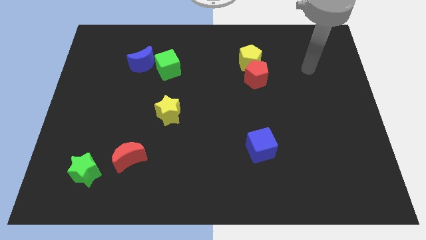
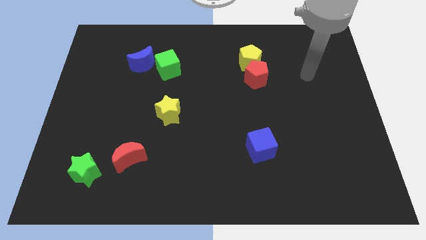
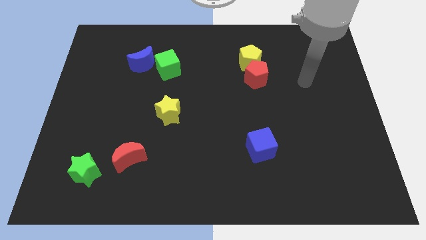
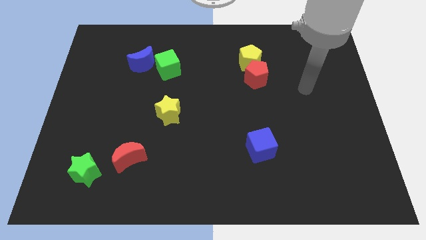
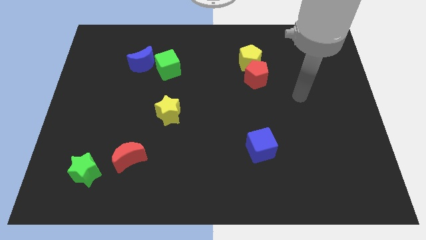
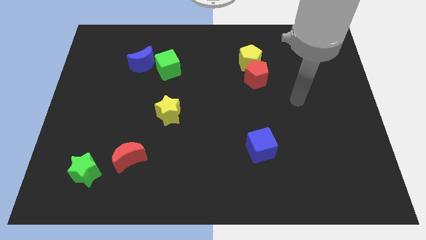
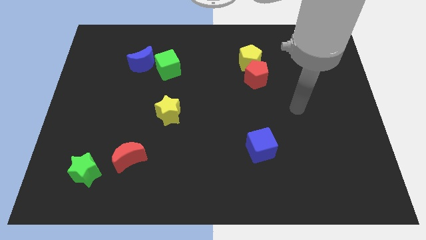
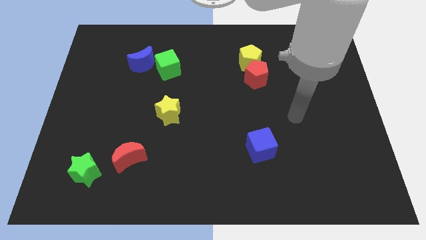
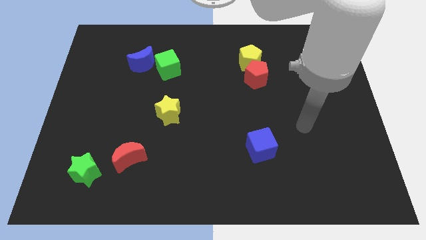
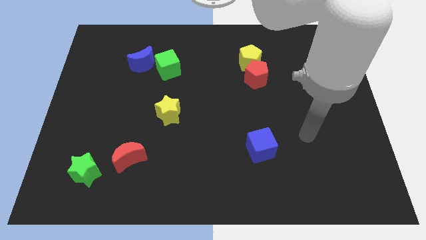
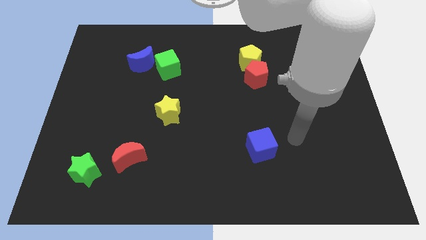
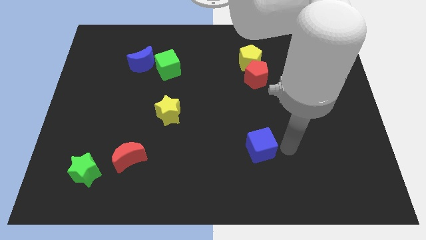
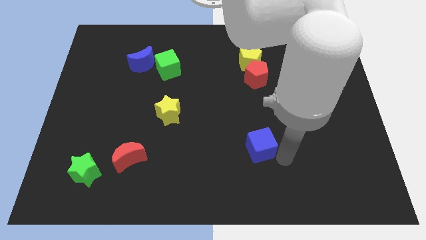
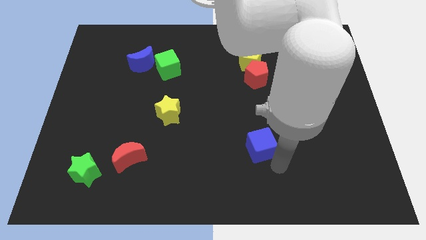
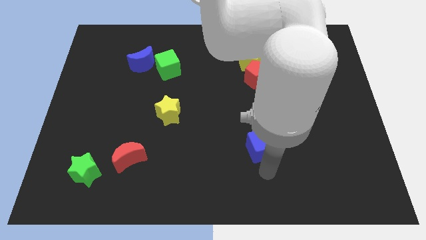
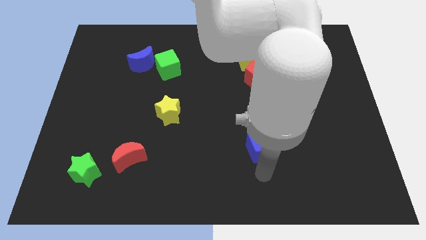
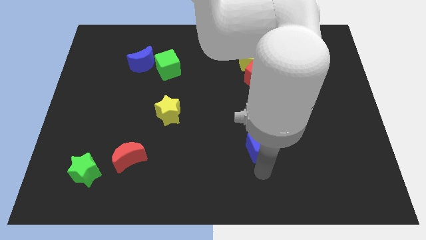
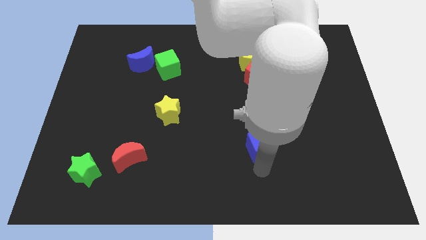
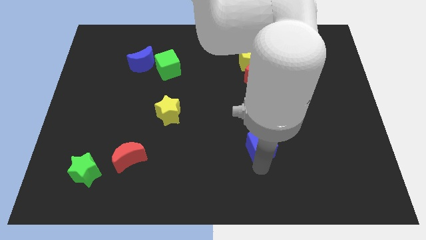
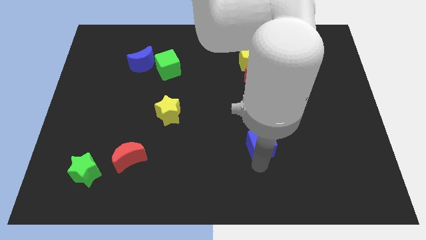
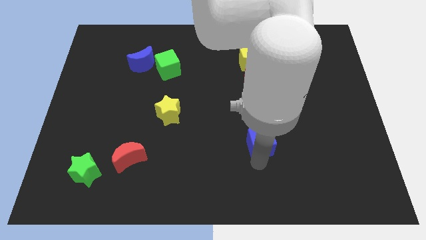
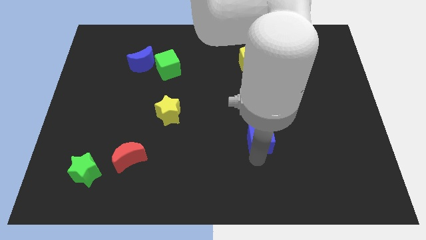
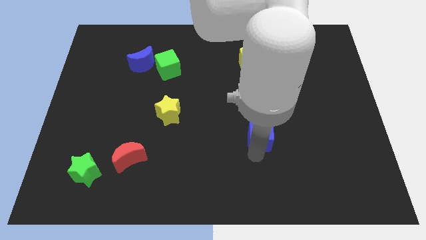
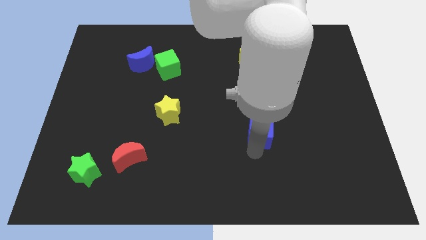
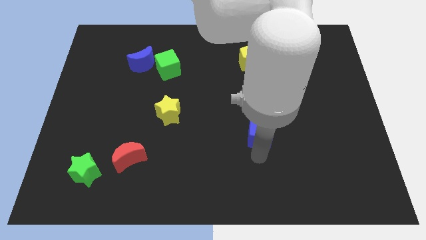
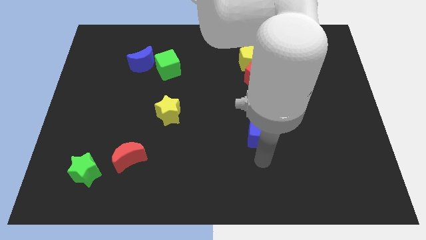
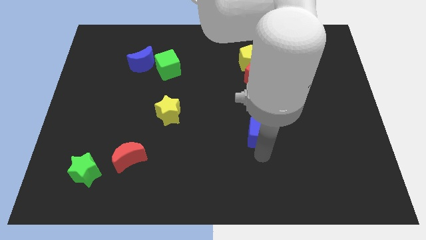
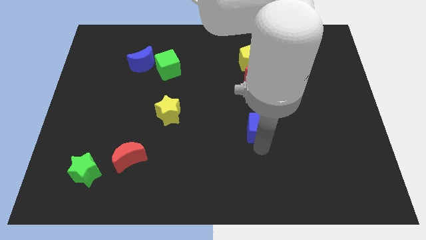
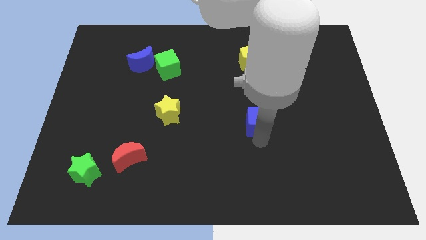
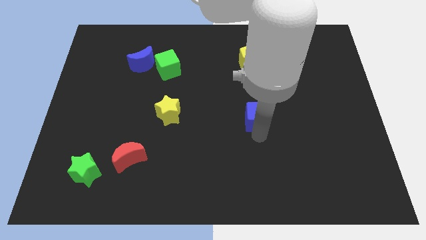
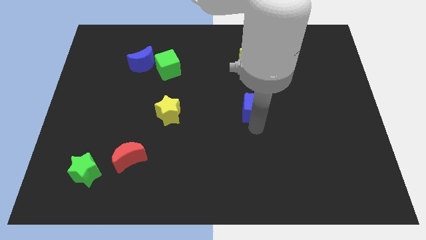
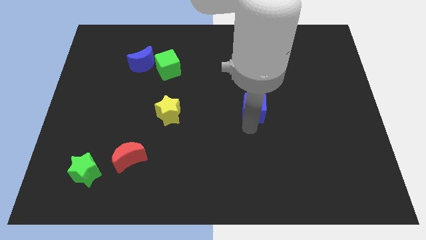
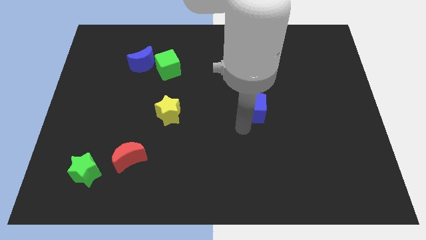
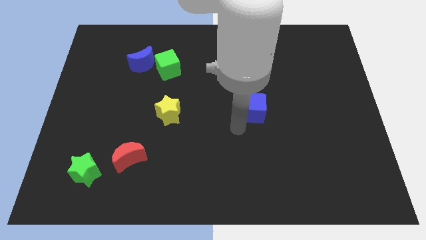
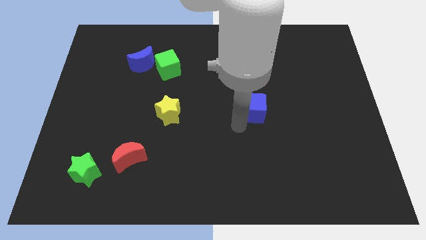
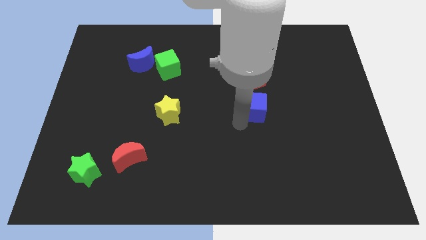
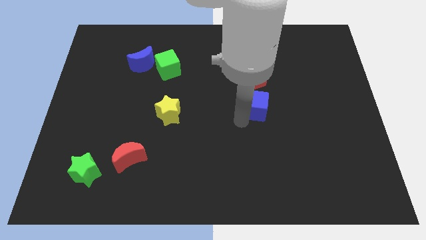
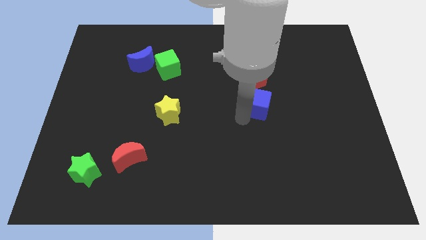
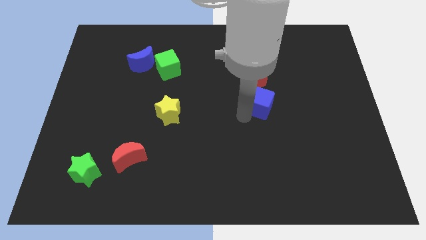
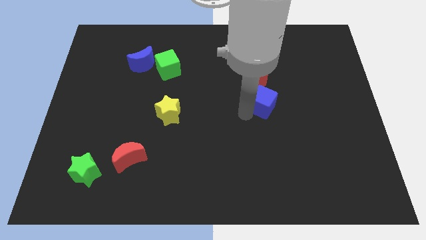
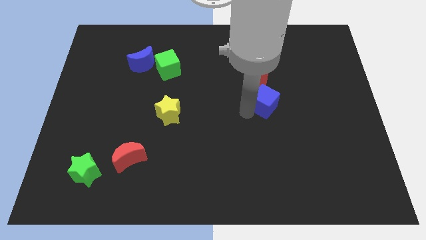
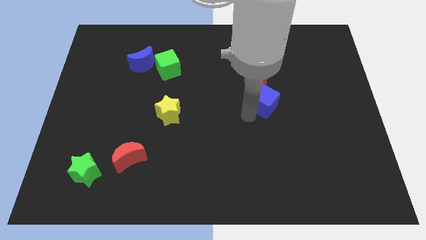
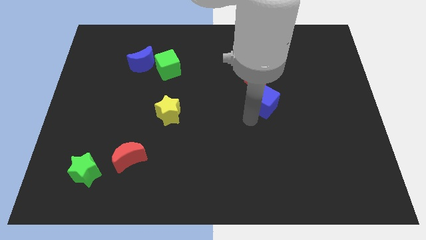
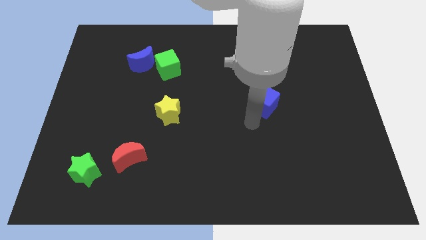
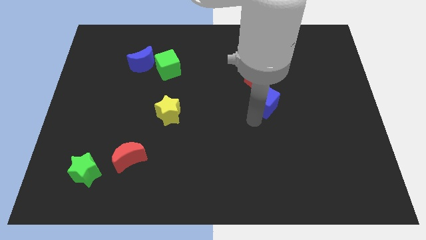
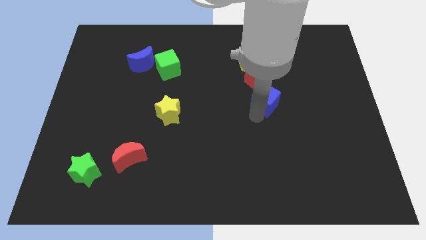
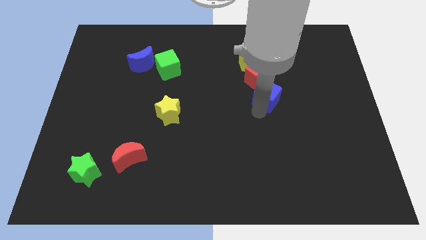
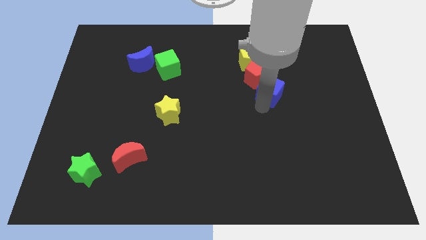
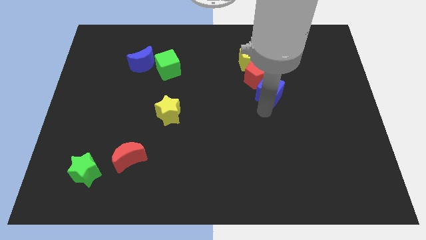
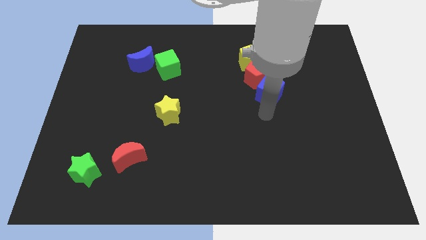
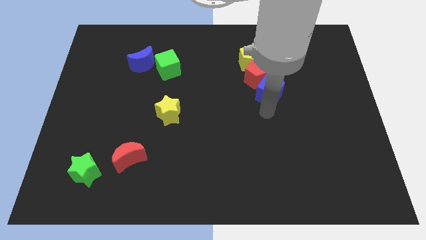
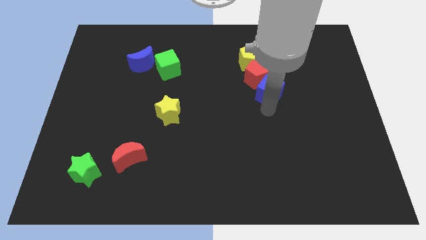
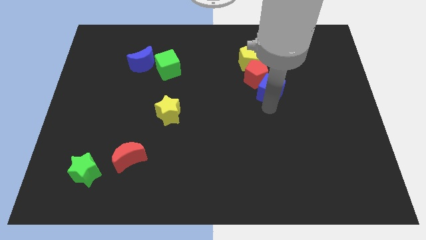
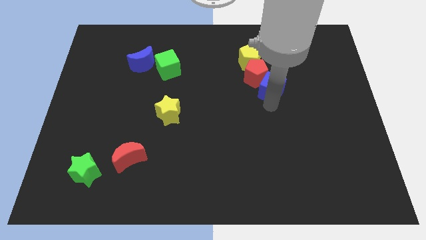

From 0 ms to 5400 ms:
push the blue cube diagonally down and to the right of the yellow pentagon

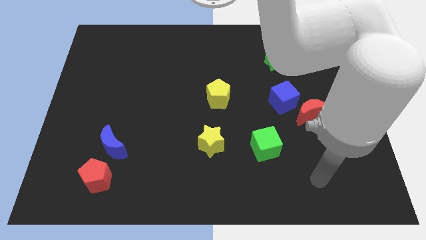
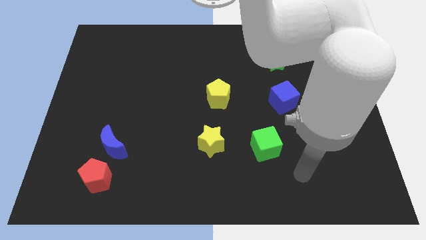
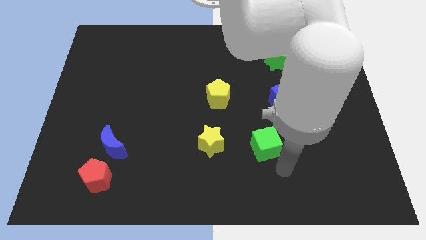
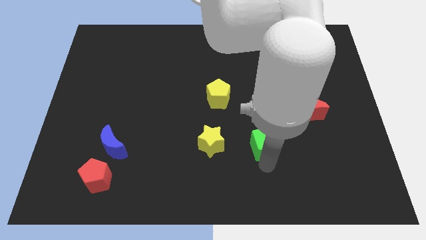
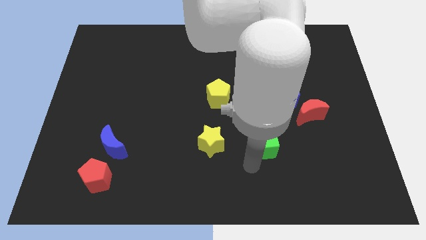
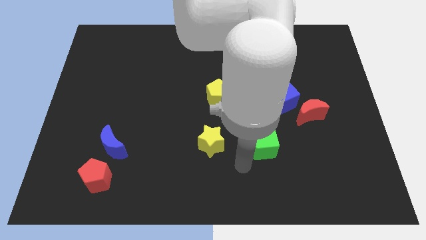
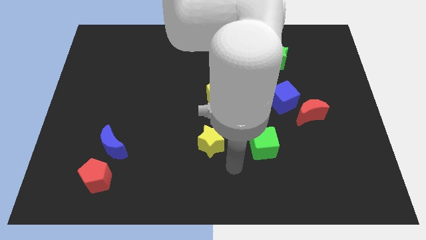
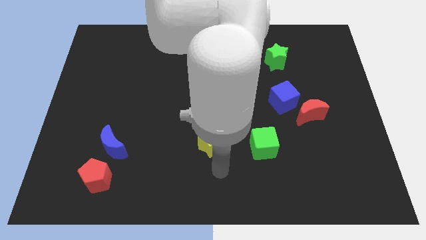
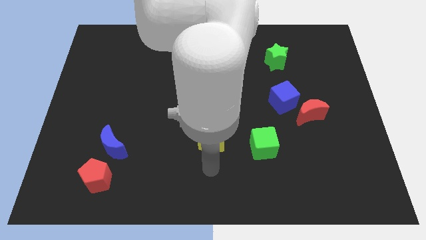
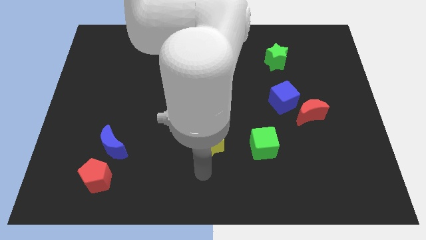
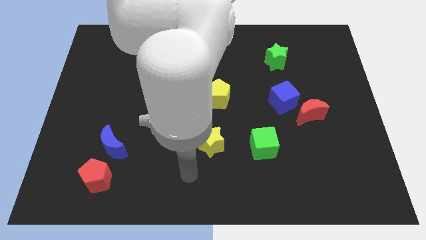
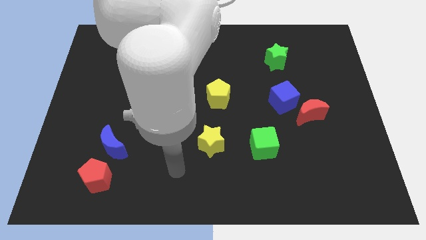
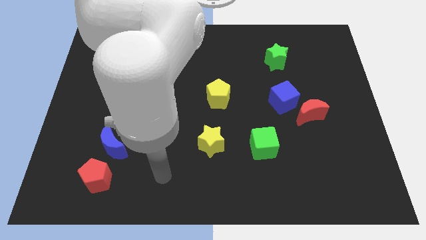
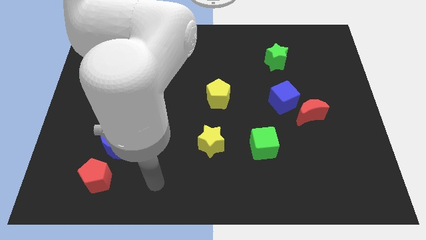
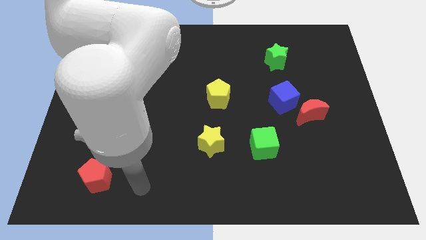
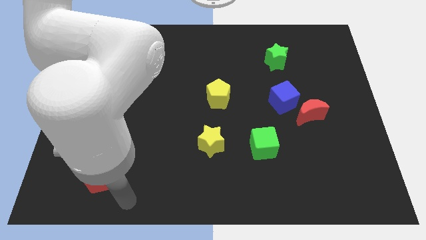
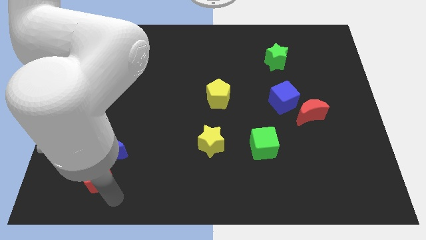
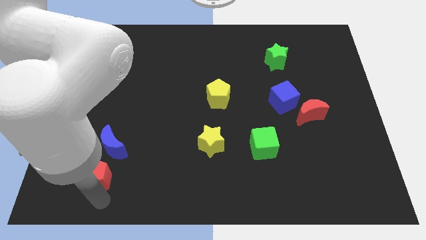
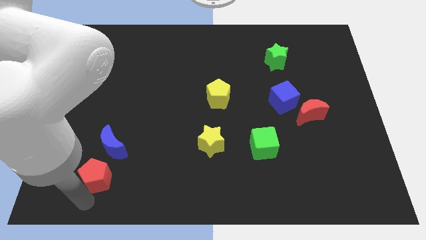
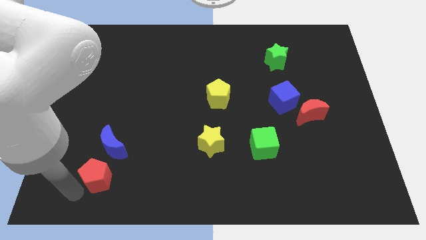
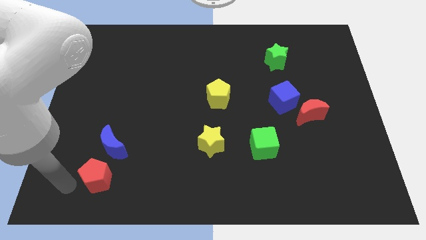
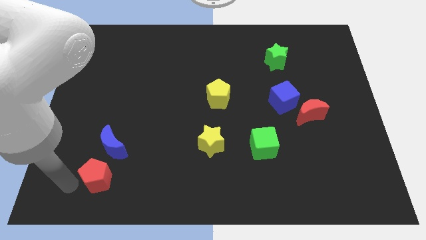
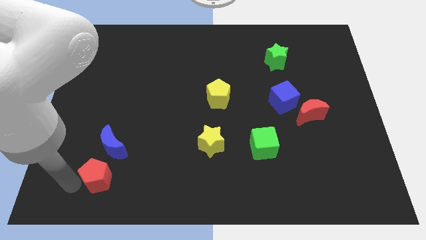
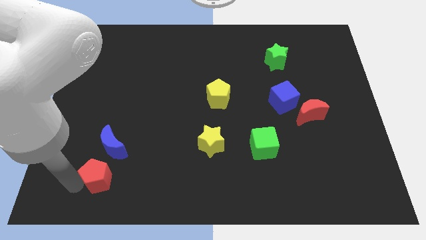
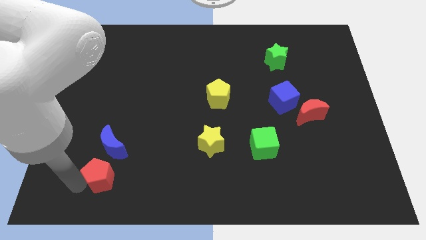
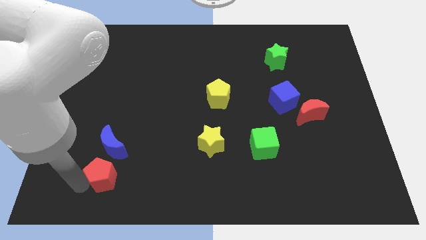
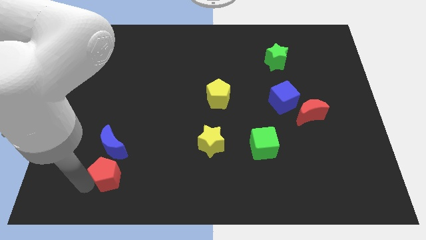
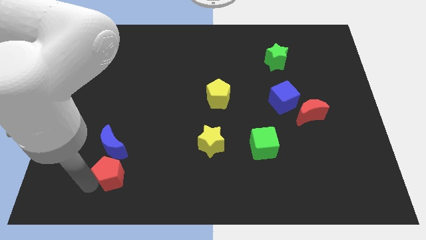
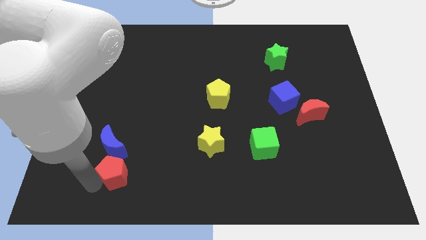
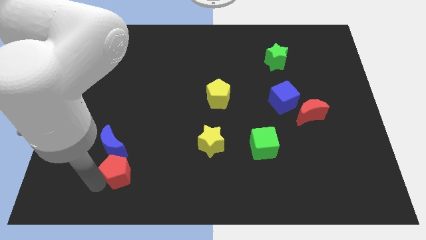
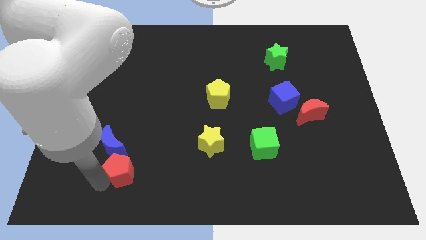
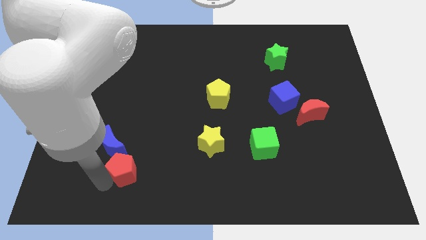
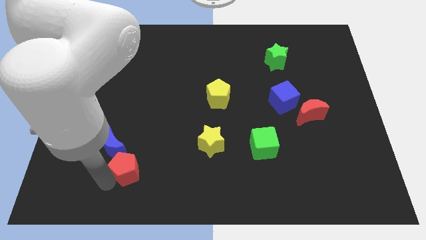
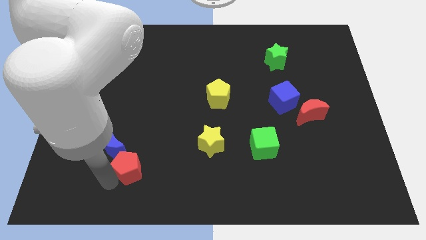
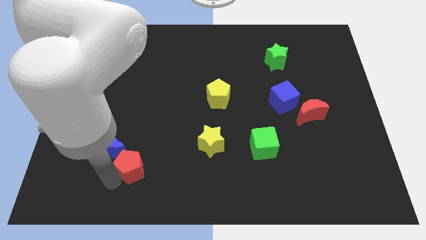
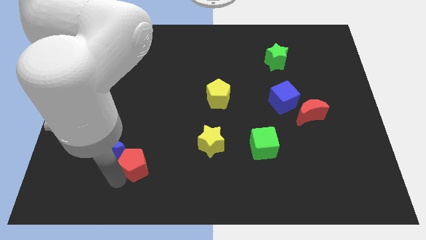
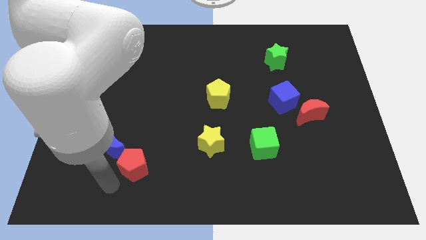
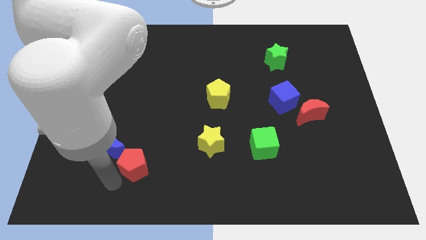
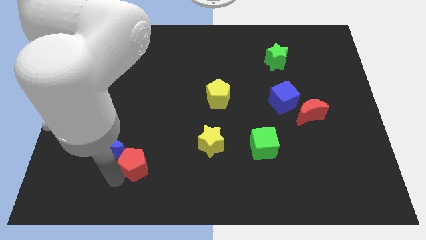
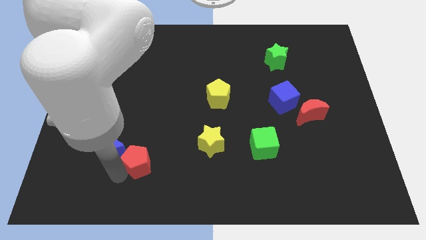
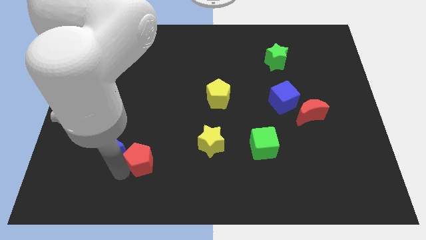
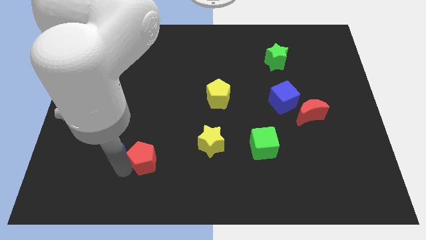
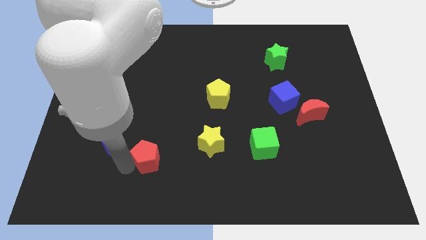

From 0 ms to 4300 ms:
move the red pentagon to the left side of the yellow star
